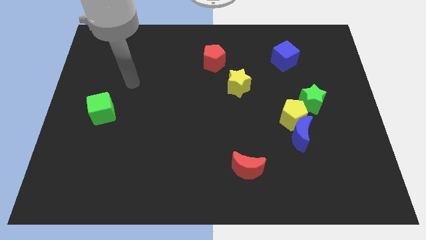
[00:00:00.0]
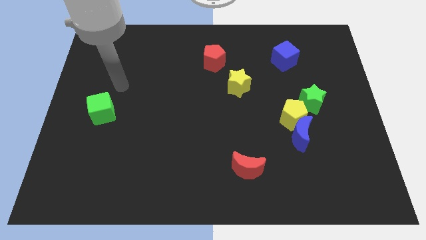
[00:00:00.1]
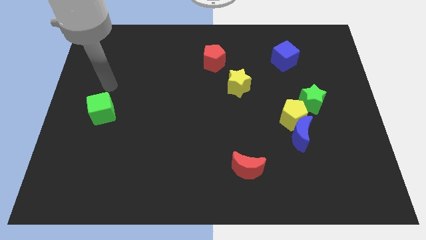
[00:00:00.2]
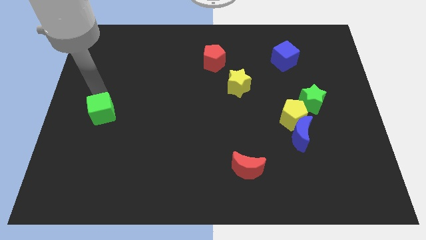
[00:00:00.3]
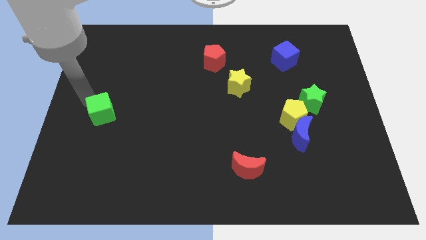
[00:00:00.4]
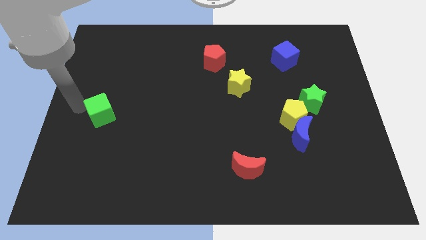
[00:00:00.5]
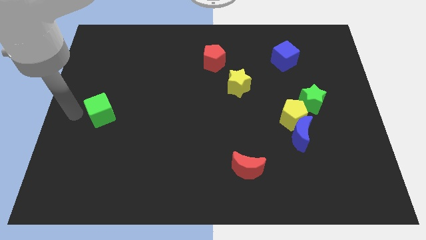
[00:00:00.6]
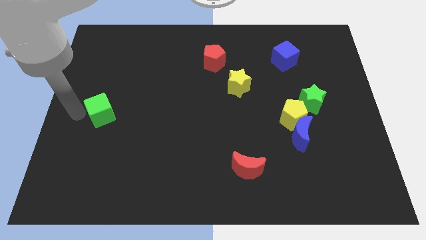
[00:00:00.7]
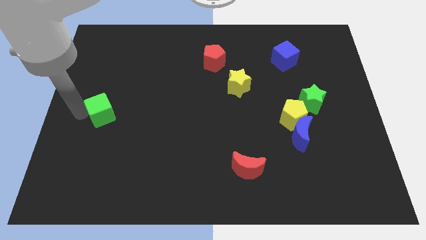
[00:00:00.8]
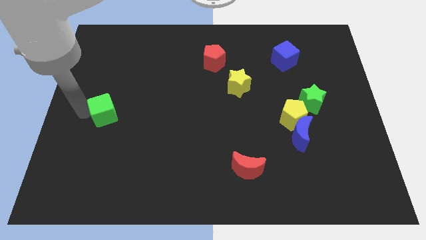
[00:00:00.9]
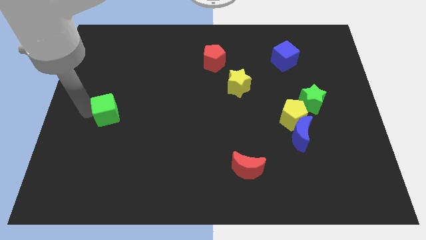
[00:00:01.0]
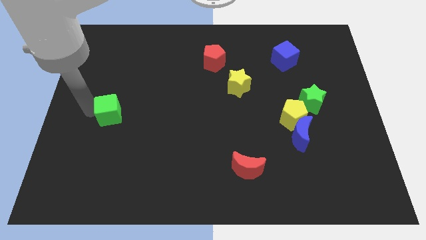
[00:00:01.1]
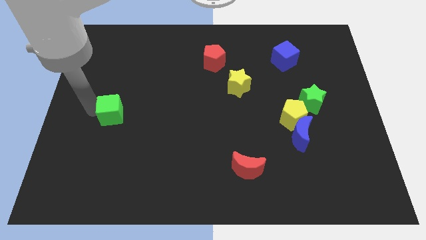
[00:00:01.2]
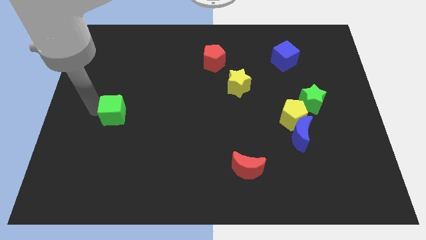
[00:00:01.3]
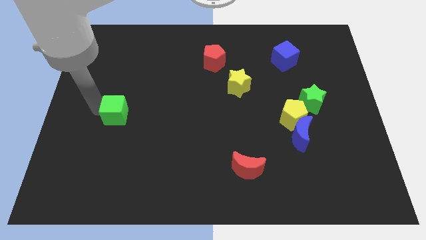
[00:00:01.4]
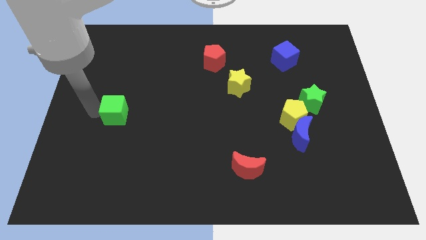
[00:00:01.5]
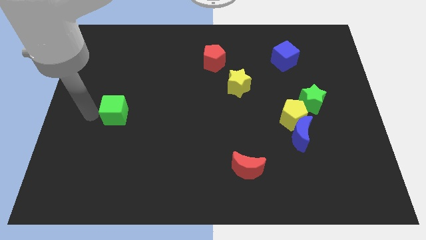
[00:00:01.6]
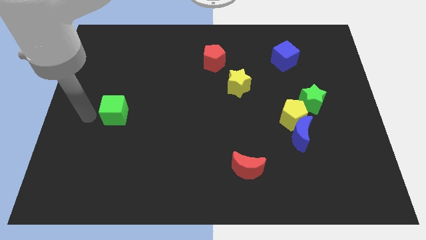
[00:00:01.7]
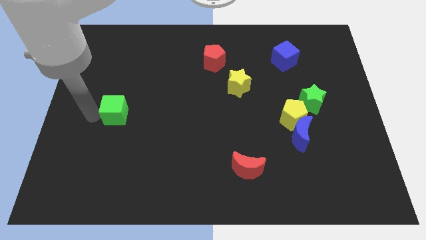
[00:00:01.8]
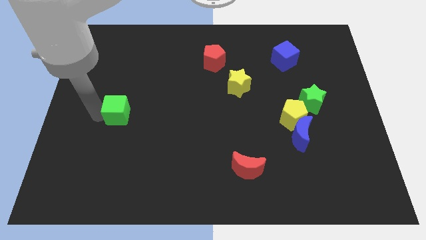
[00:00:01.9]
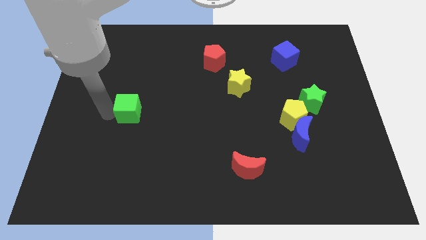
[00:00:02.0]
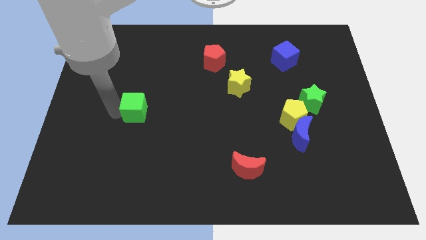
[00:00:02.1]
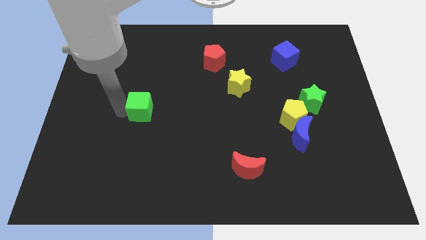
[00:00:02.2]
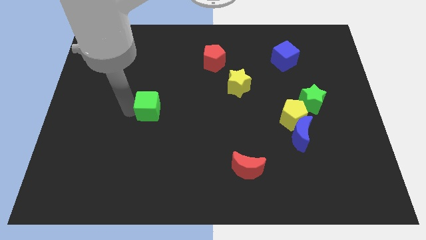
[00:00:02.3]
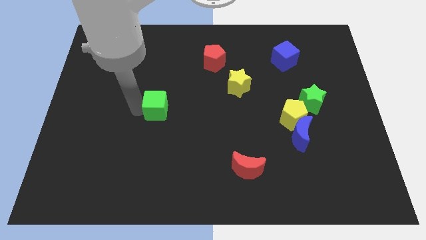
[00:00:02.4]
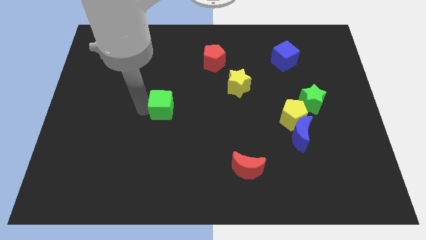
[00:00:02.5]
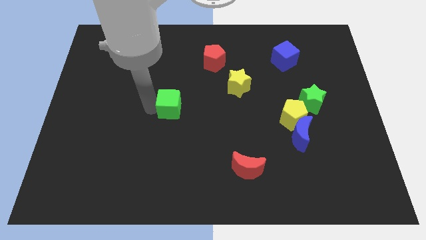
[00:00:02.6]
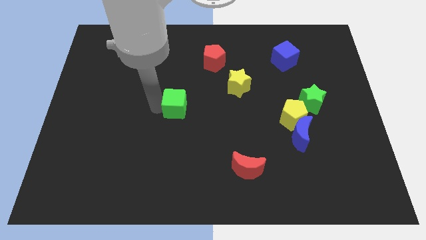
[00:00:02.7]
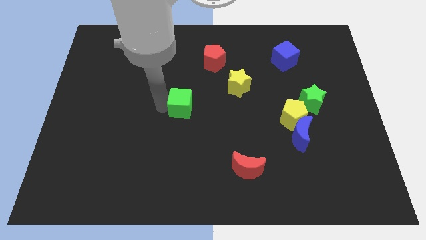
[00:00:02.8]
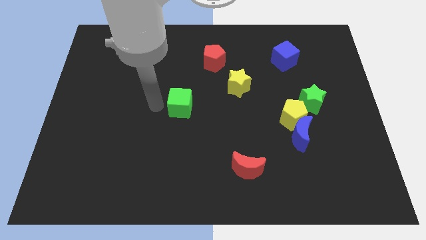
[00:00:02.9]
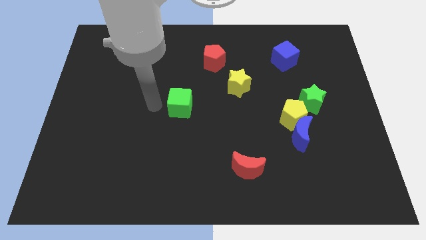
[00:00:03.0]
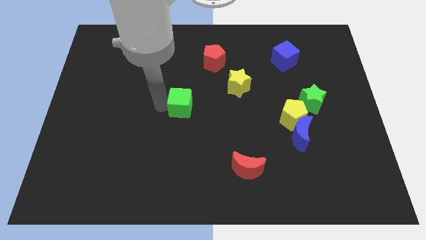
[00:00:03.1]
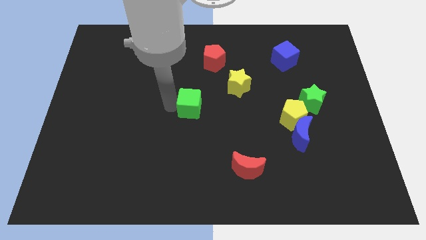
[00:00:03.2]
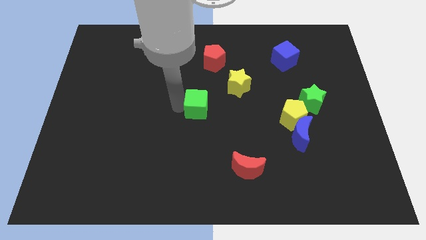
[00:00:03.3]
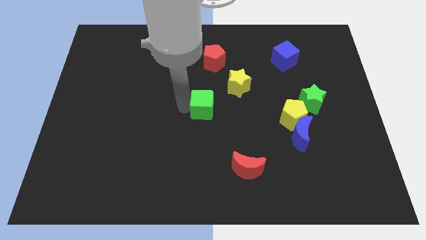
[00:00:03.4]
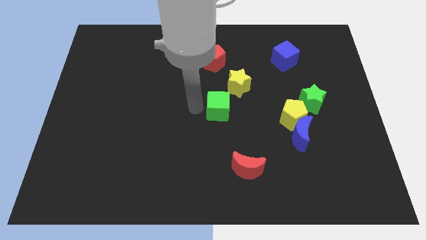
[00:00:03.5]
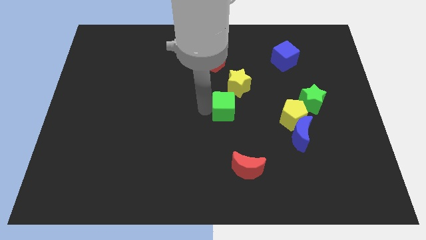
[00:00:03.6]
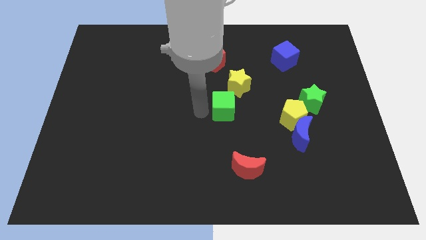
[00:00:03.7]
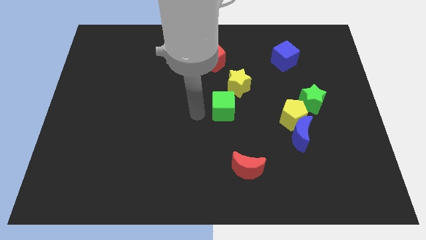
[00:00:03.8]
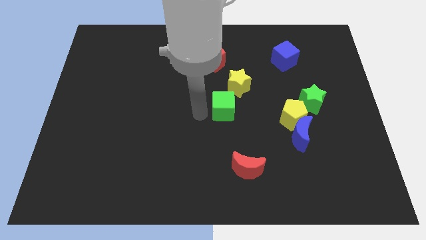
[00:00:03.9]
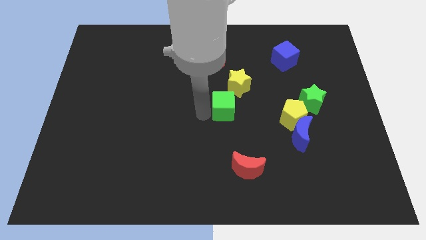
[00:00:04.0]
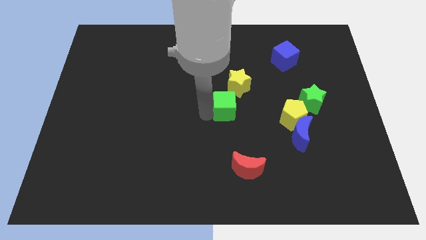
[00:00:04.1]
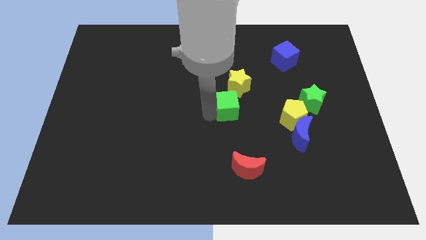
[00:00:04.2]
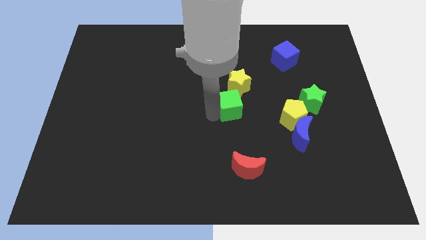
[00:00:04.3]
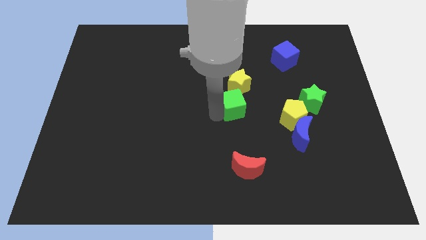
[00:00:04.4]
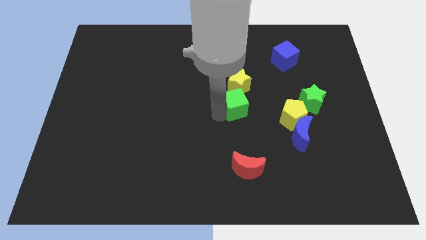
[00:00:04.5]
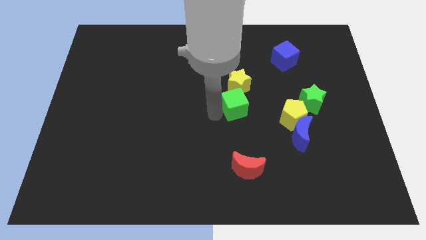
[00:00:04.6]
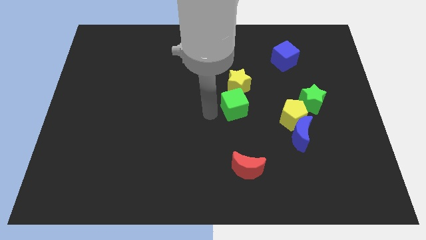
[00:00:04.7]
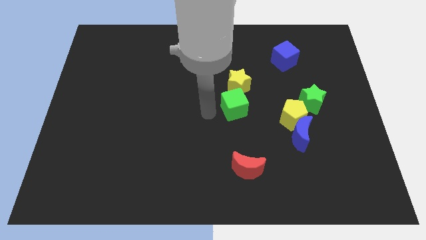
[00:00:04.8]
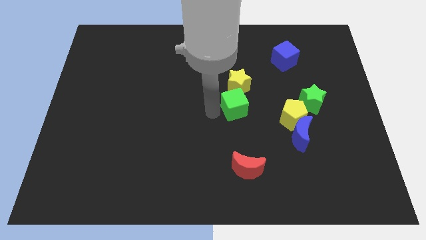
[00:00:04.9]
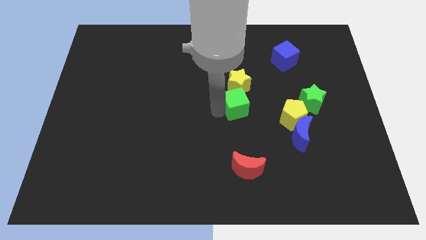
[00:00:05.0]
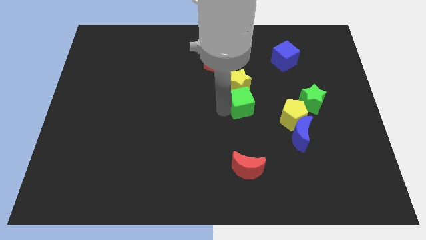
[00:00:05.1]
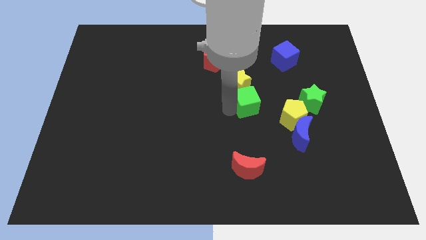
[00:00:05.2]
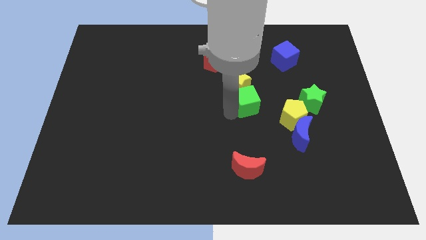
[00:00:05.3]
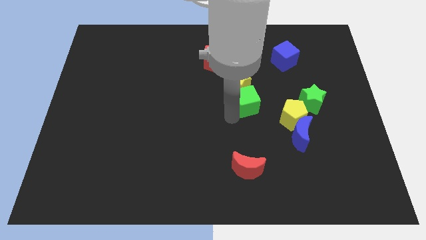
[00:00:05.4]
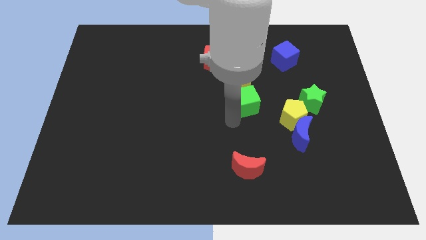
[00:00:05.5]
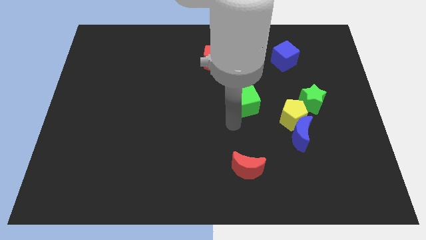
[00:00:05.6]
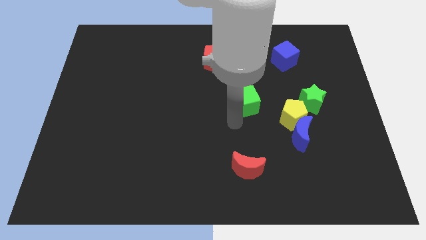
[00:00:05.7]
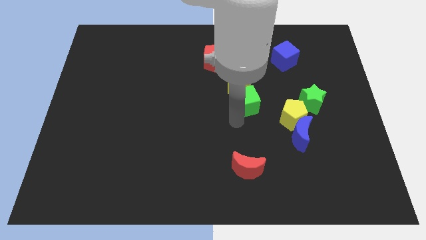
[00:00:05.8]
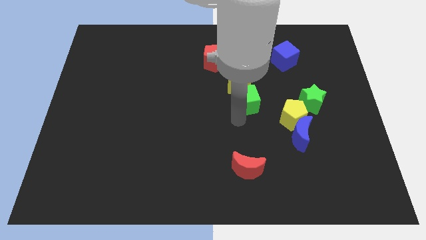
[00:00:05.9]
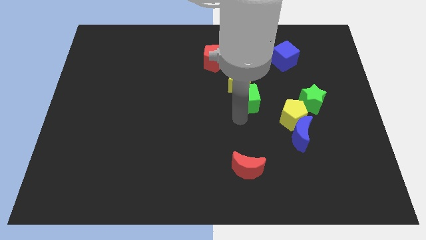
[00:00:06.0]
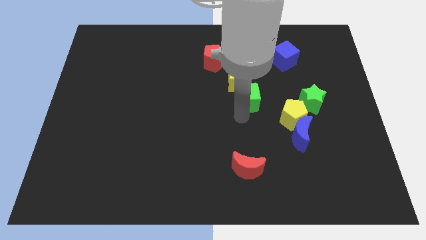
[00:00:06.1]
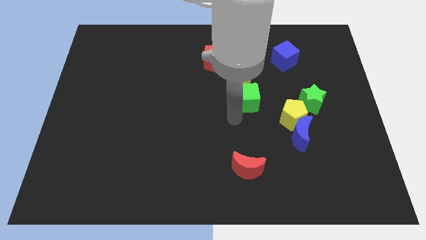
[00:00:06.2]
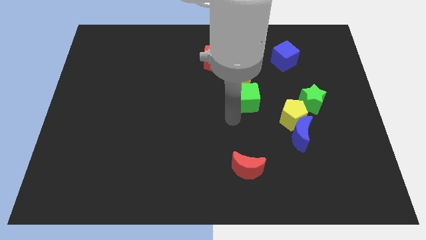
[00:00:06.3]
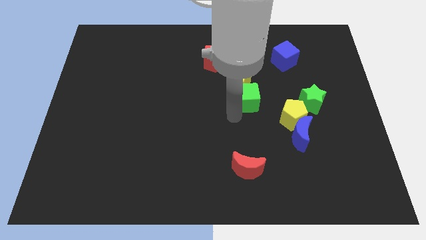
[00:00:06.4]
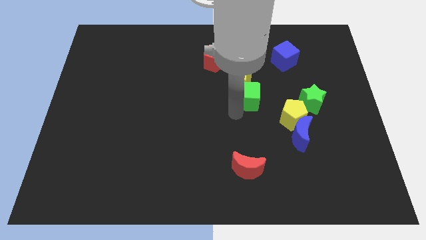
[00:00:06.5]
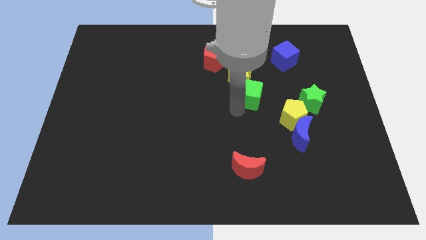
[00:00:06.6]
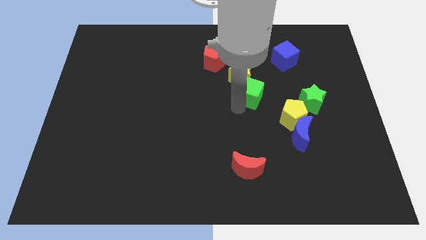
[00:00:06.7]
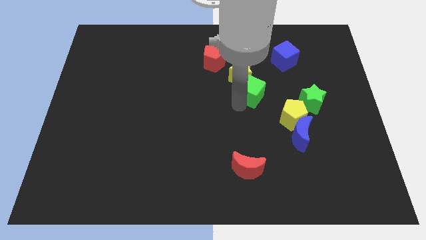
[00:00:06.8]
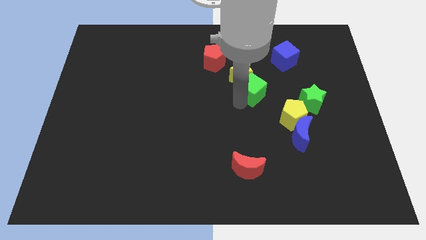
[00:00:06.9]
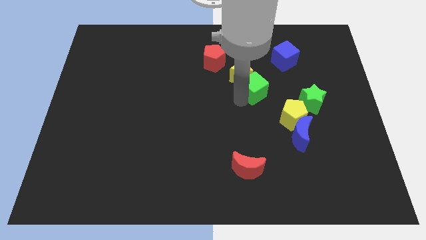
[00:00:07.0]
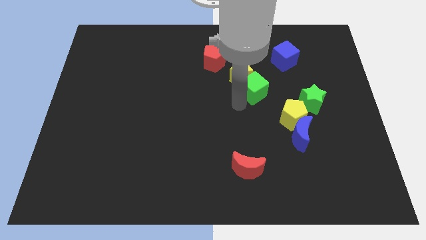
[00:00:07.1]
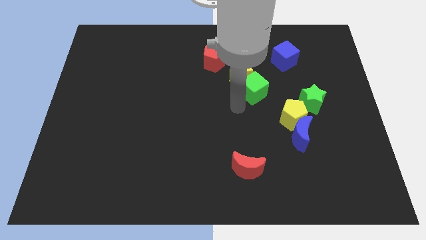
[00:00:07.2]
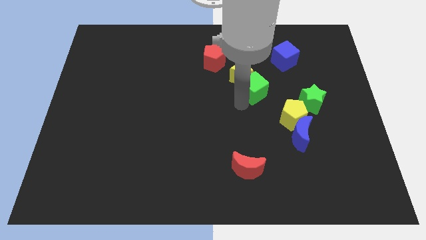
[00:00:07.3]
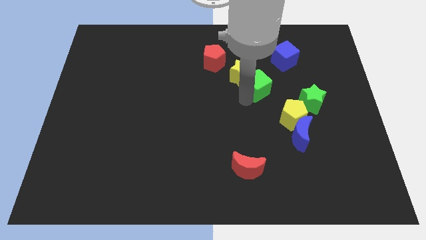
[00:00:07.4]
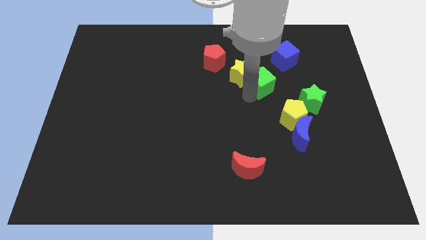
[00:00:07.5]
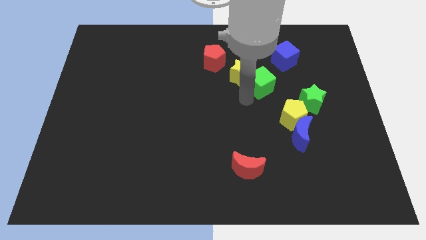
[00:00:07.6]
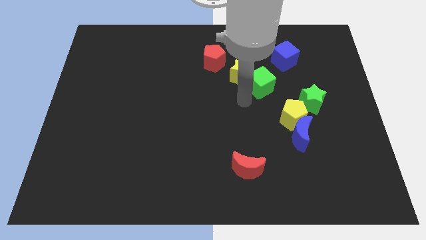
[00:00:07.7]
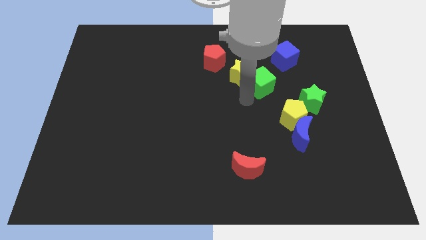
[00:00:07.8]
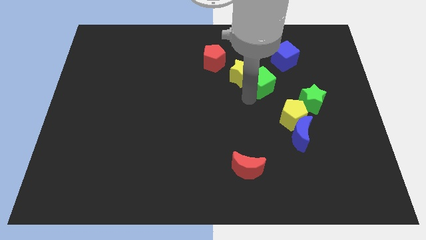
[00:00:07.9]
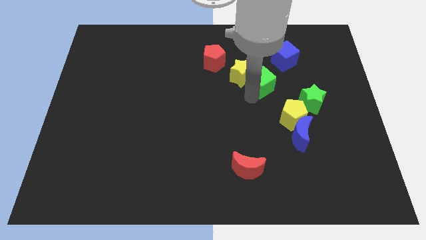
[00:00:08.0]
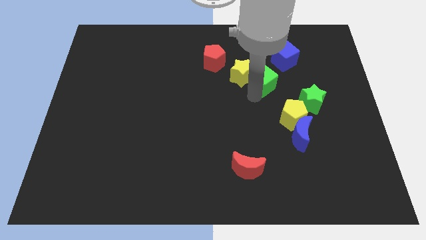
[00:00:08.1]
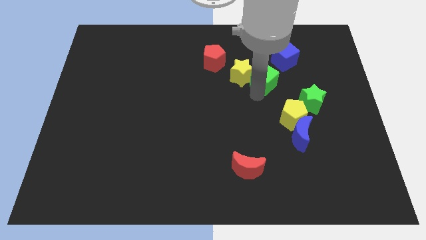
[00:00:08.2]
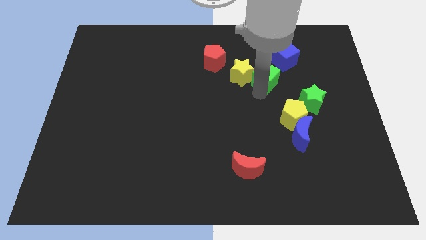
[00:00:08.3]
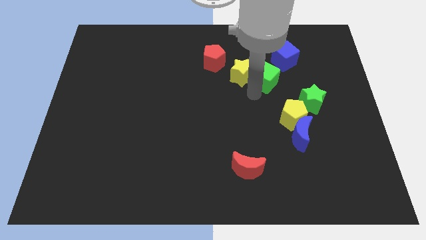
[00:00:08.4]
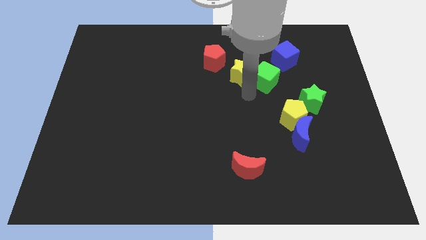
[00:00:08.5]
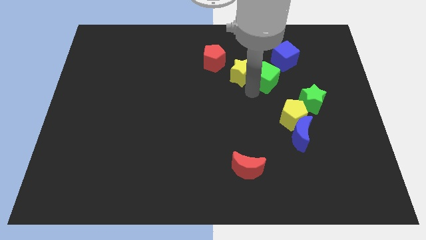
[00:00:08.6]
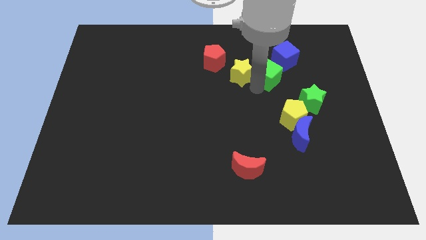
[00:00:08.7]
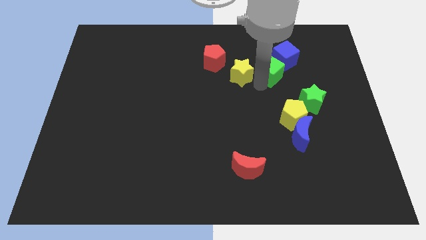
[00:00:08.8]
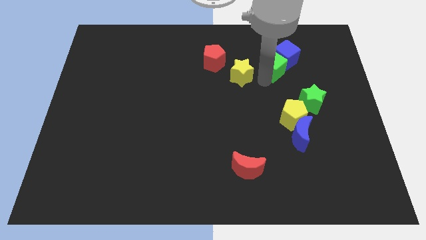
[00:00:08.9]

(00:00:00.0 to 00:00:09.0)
push the green cube to the blue cube
